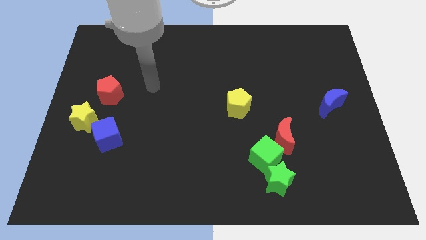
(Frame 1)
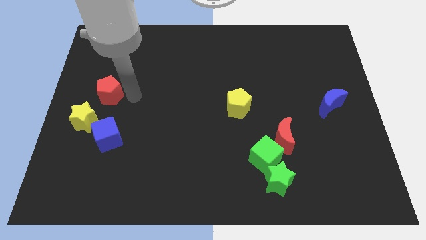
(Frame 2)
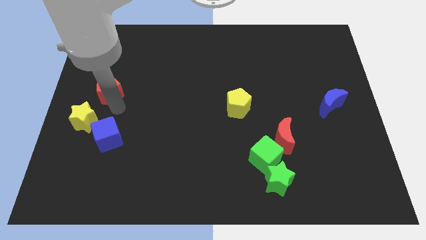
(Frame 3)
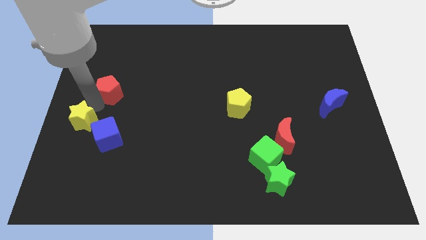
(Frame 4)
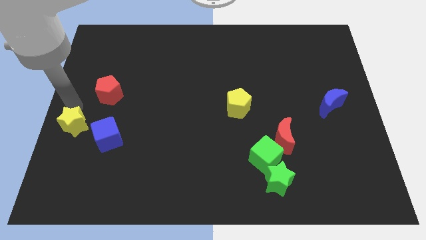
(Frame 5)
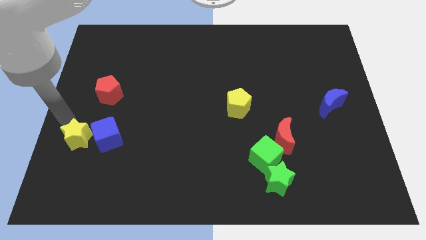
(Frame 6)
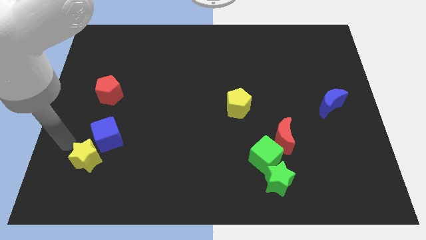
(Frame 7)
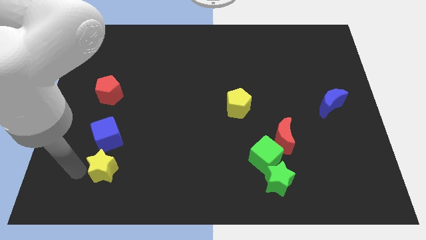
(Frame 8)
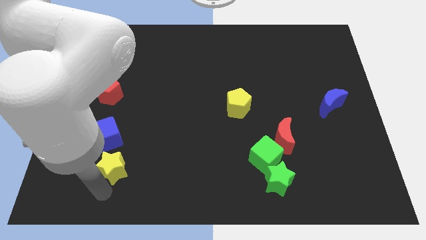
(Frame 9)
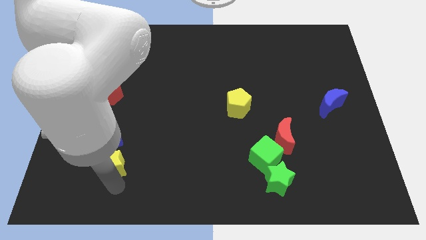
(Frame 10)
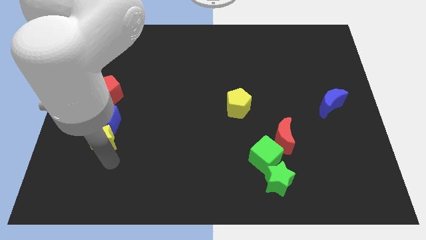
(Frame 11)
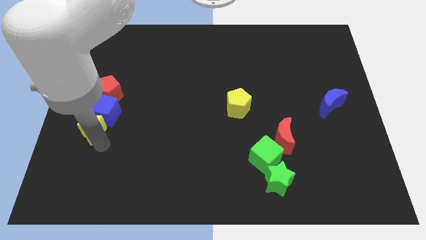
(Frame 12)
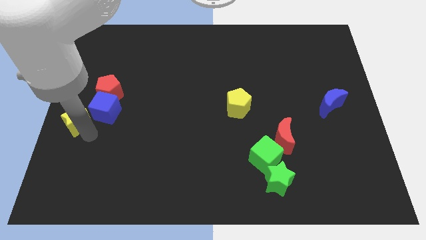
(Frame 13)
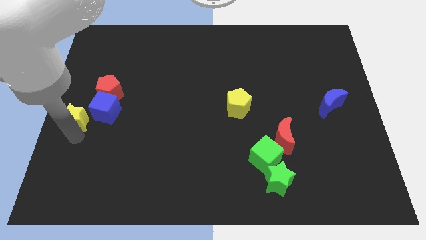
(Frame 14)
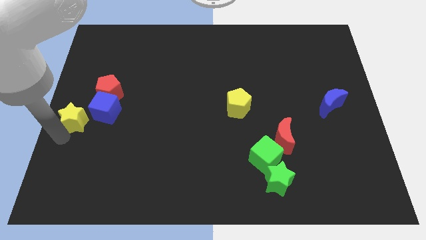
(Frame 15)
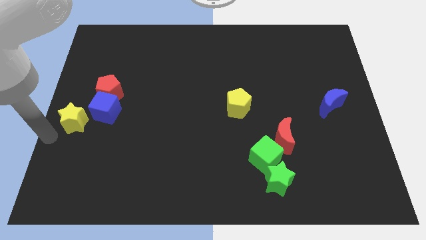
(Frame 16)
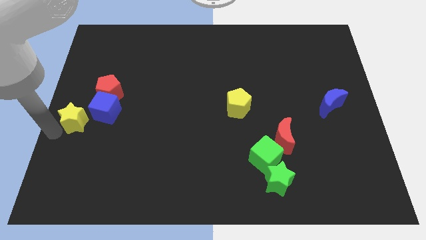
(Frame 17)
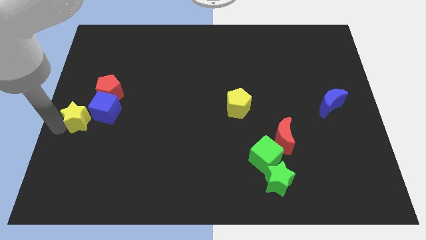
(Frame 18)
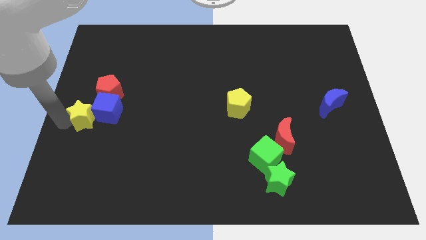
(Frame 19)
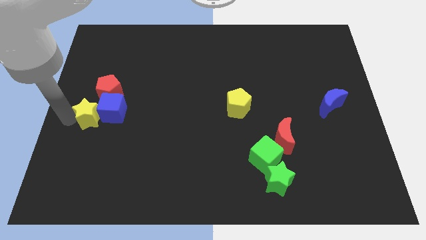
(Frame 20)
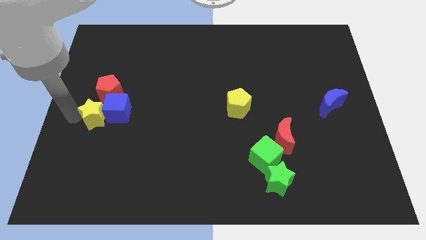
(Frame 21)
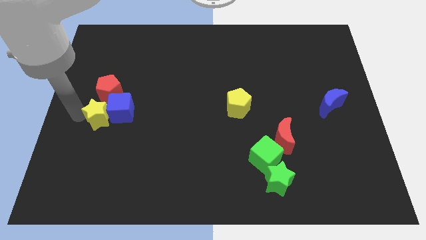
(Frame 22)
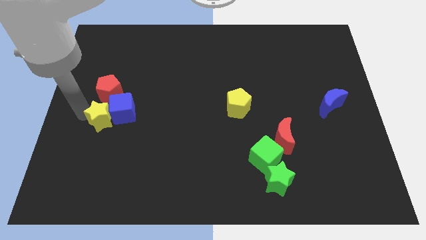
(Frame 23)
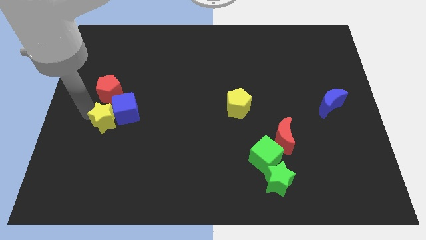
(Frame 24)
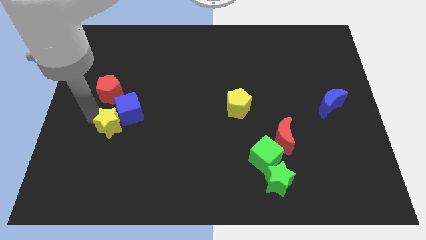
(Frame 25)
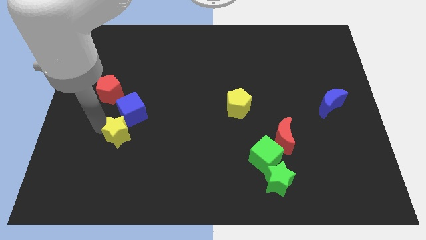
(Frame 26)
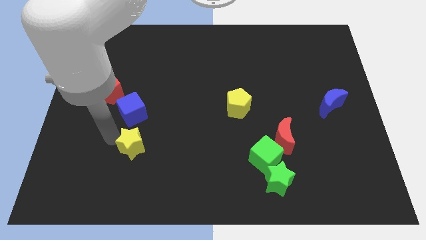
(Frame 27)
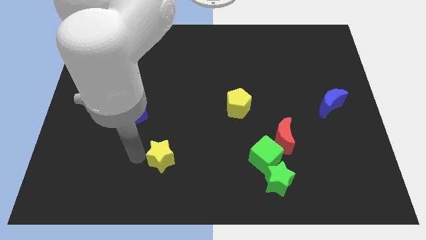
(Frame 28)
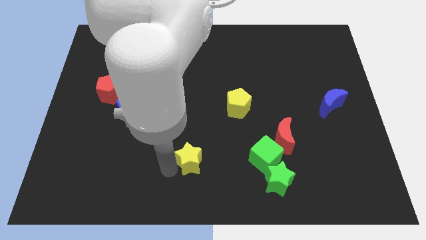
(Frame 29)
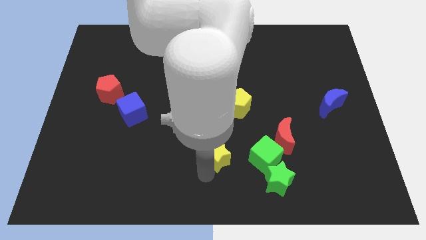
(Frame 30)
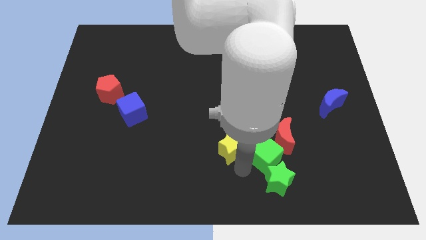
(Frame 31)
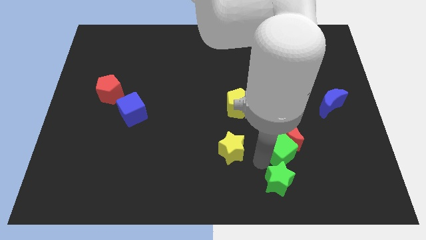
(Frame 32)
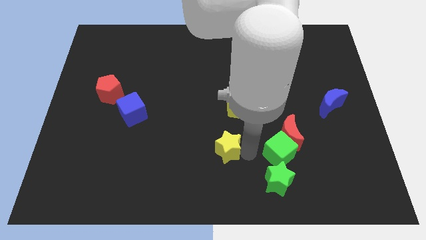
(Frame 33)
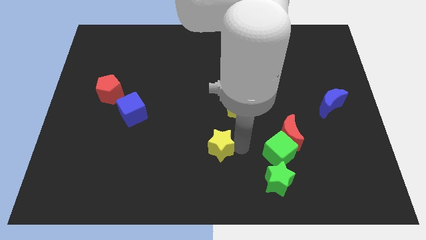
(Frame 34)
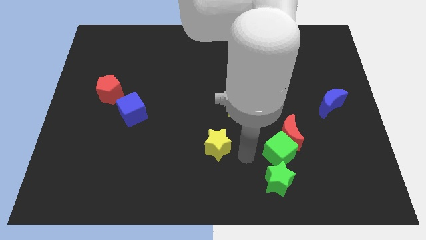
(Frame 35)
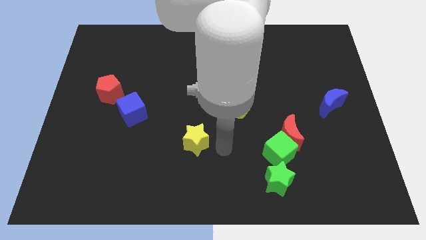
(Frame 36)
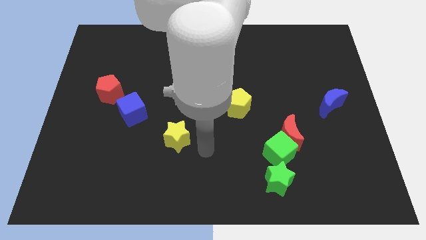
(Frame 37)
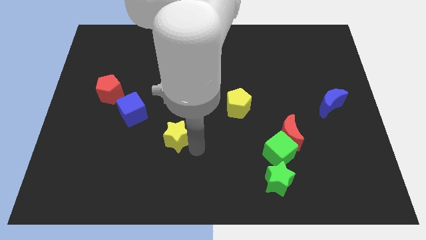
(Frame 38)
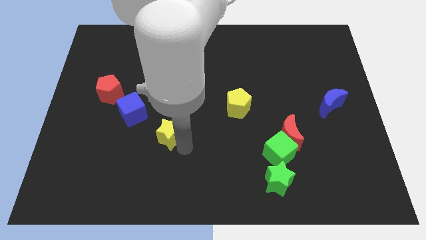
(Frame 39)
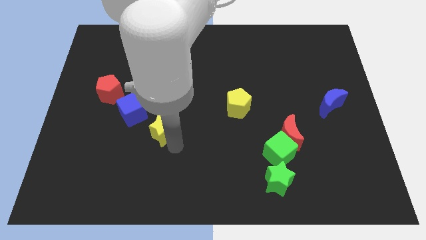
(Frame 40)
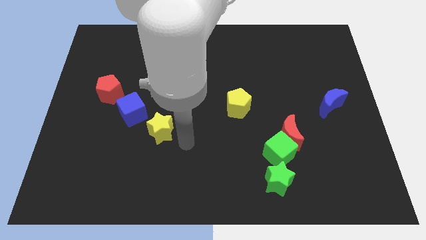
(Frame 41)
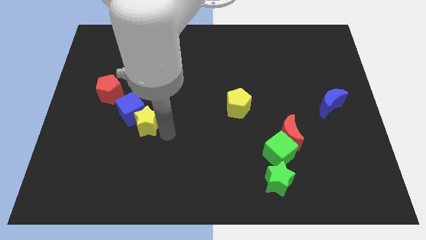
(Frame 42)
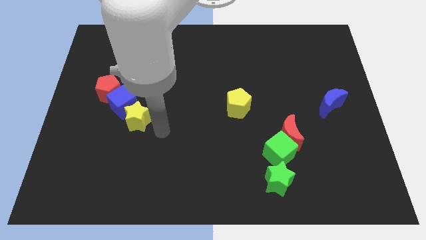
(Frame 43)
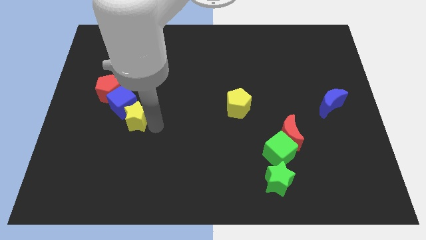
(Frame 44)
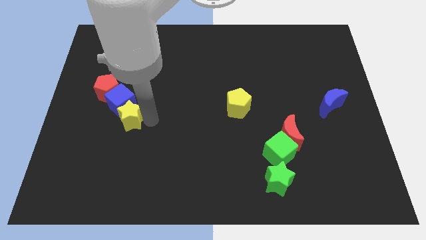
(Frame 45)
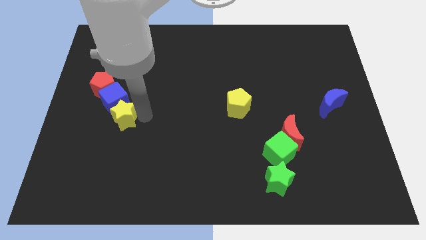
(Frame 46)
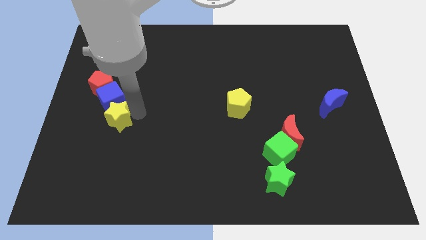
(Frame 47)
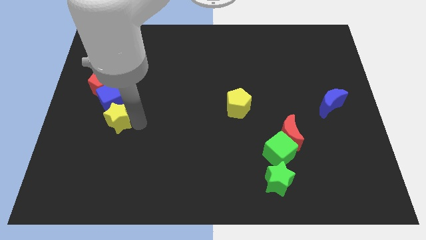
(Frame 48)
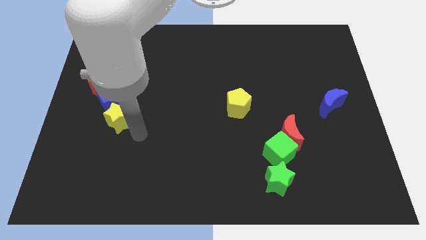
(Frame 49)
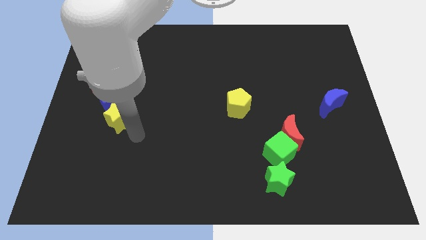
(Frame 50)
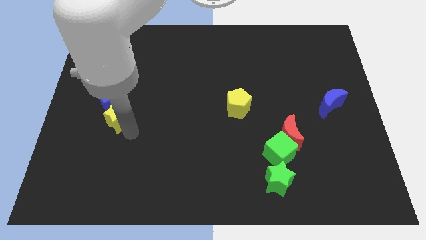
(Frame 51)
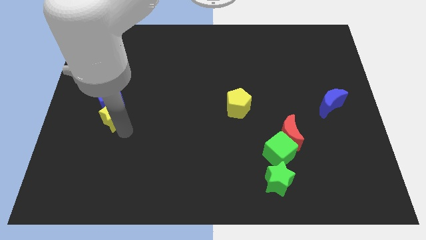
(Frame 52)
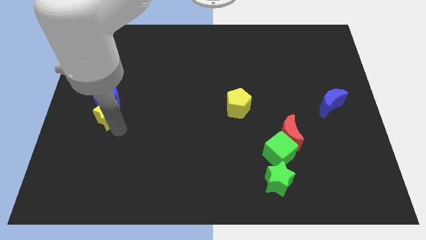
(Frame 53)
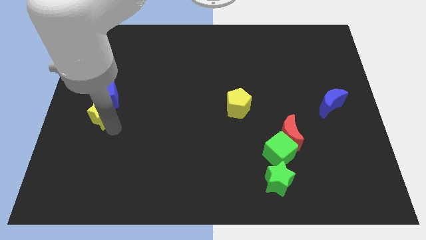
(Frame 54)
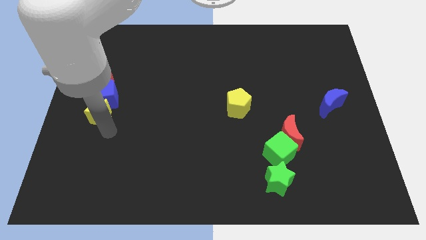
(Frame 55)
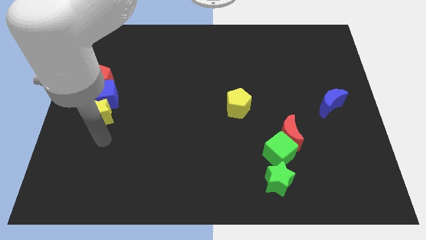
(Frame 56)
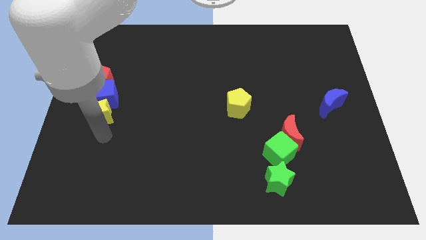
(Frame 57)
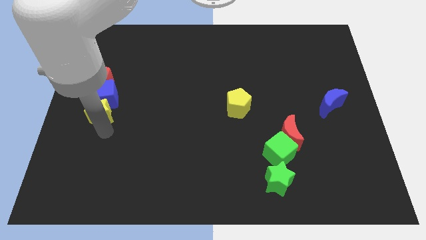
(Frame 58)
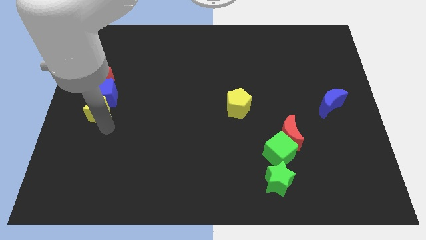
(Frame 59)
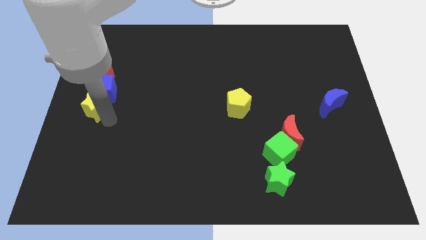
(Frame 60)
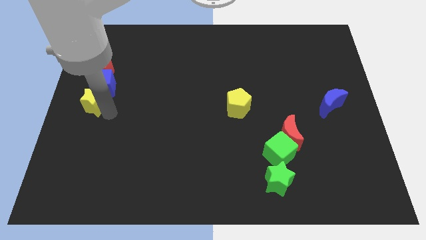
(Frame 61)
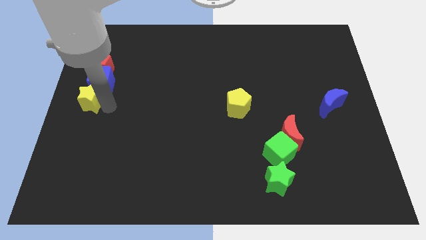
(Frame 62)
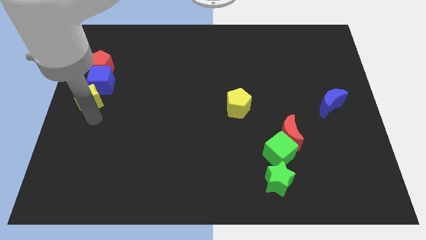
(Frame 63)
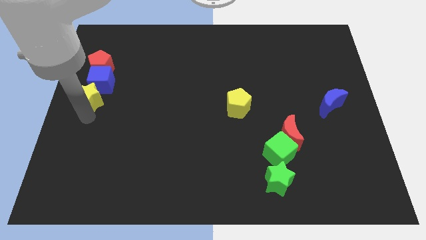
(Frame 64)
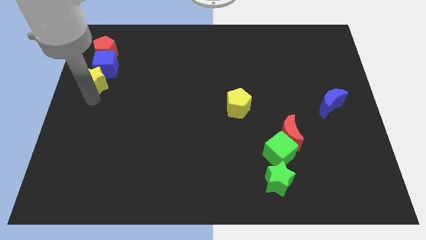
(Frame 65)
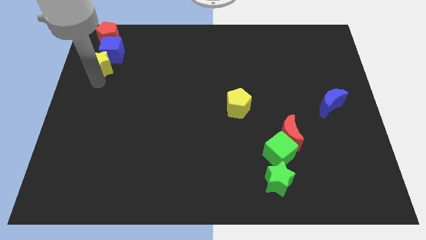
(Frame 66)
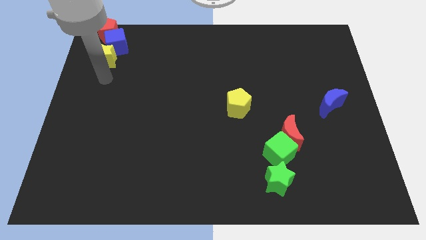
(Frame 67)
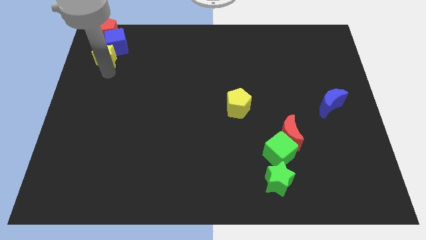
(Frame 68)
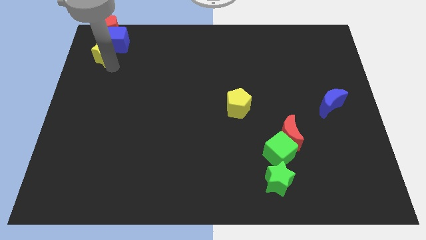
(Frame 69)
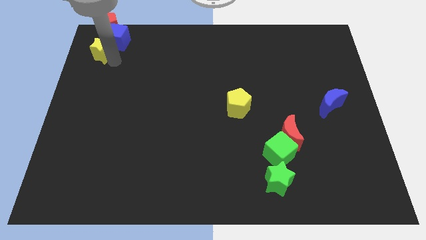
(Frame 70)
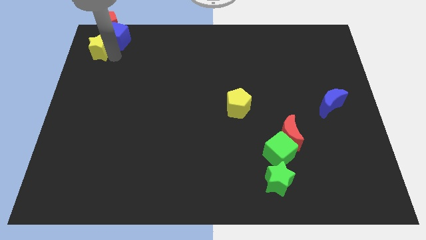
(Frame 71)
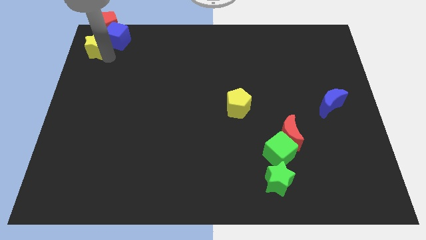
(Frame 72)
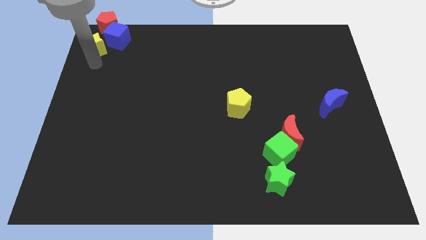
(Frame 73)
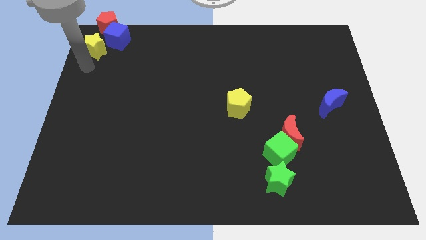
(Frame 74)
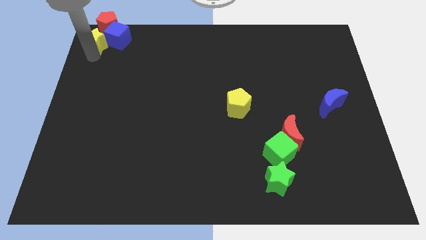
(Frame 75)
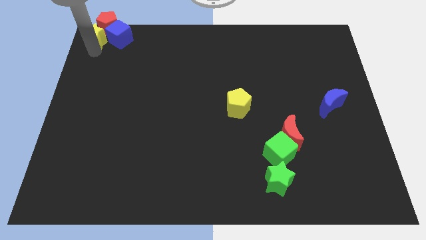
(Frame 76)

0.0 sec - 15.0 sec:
put the yellow star to the red pentagon
